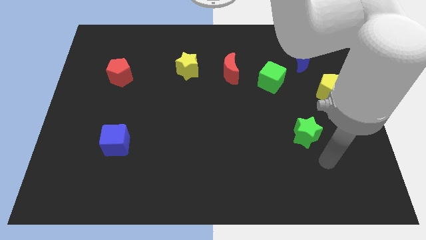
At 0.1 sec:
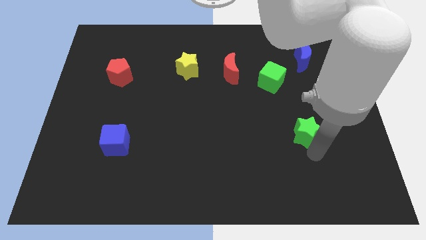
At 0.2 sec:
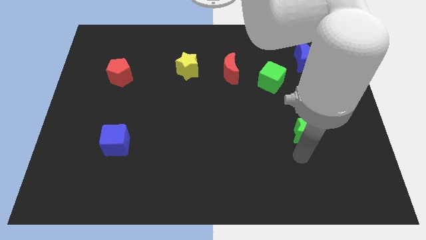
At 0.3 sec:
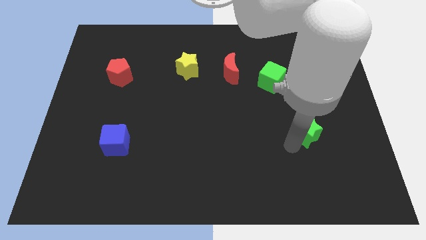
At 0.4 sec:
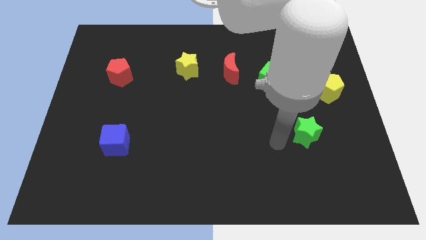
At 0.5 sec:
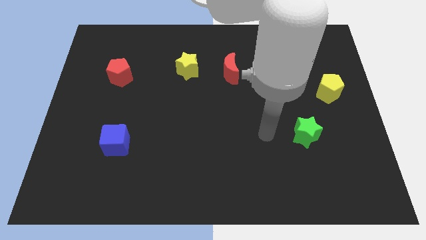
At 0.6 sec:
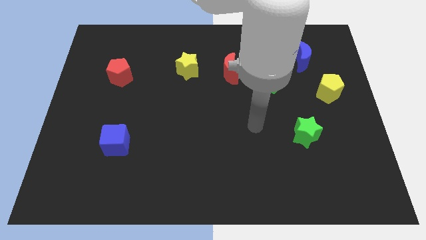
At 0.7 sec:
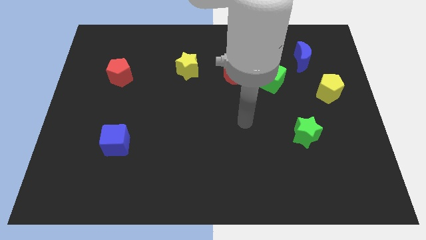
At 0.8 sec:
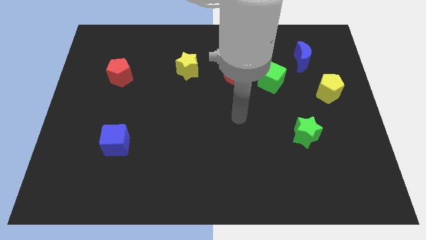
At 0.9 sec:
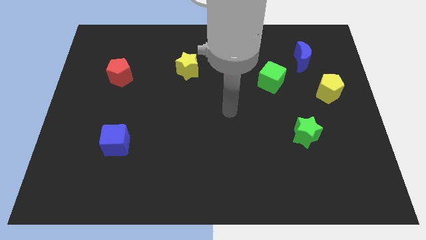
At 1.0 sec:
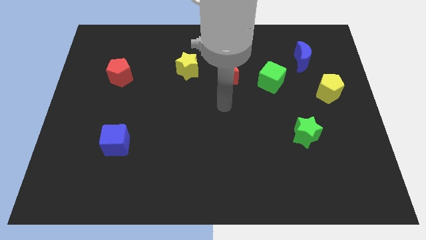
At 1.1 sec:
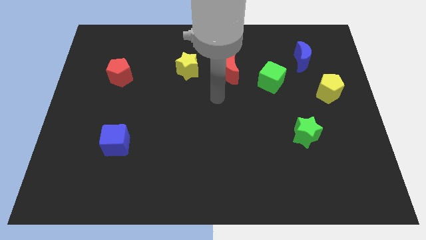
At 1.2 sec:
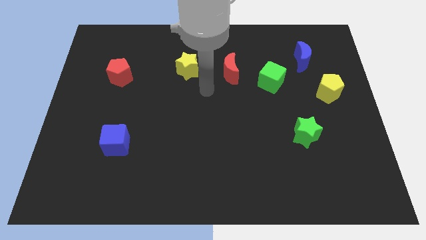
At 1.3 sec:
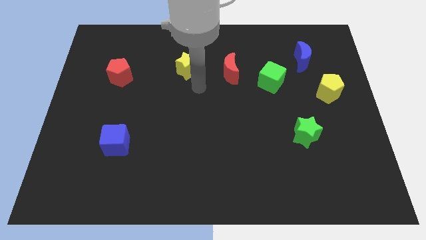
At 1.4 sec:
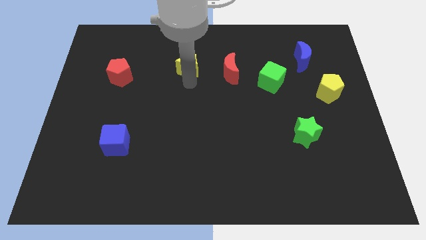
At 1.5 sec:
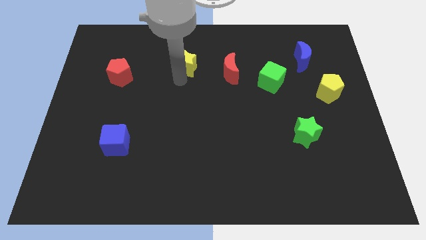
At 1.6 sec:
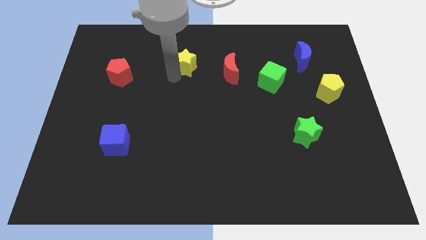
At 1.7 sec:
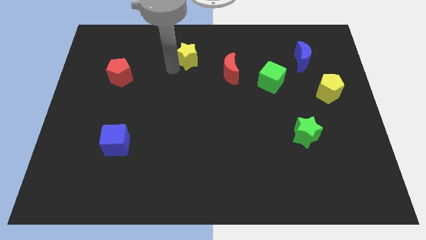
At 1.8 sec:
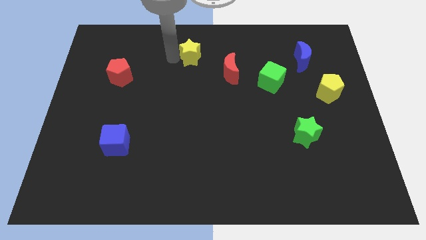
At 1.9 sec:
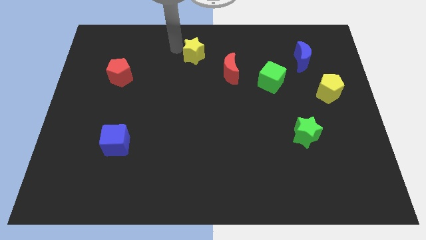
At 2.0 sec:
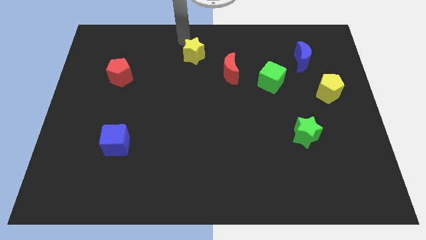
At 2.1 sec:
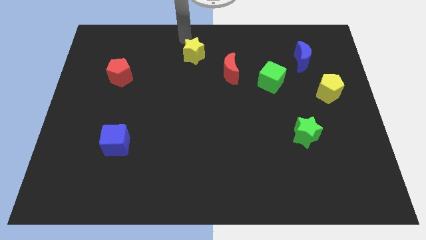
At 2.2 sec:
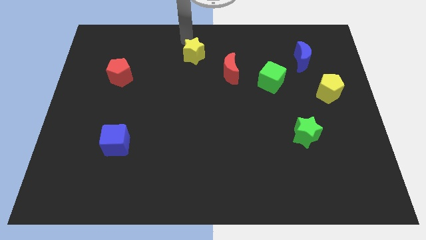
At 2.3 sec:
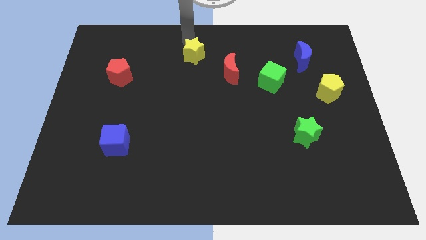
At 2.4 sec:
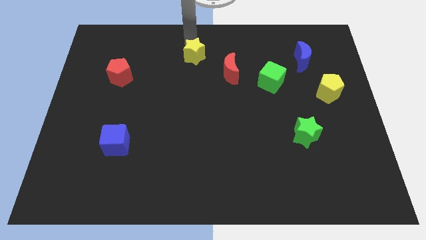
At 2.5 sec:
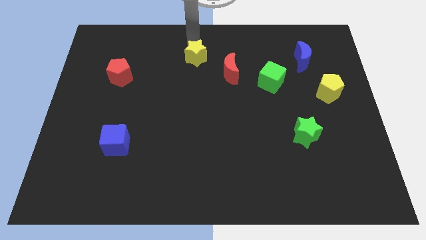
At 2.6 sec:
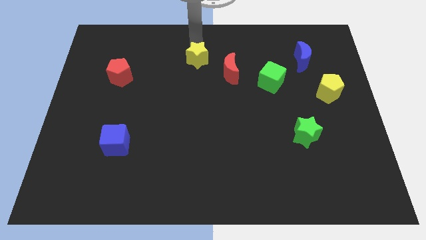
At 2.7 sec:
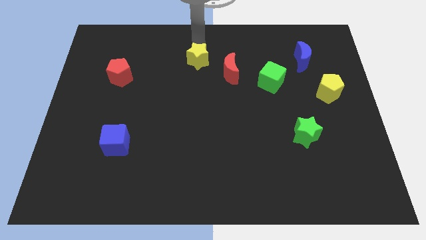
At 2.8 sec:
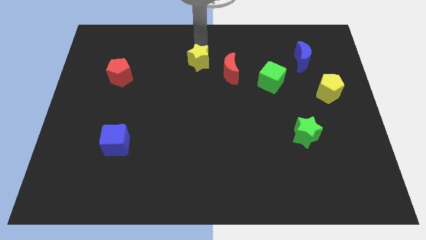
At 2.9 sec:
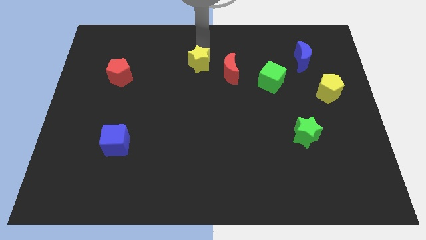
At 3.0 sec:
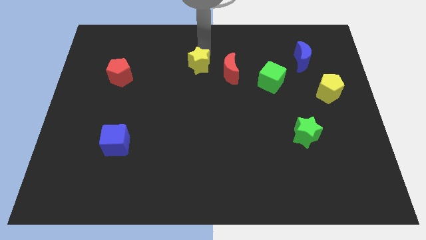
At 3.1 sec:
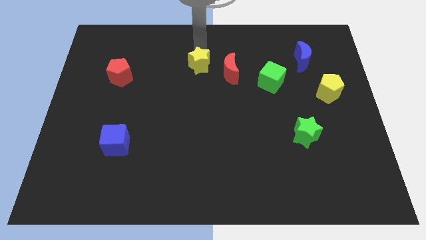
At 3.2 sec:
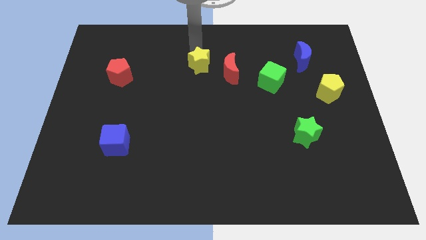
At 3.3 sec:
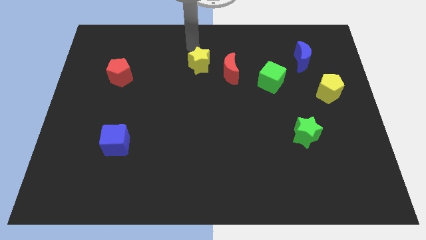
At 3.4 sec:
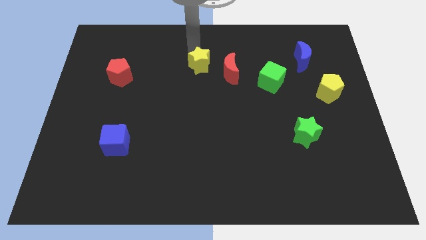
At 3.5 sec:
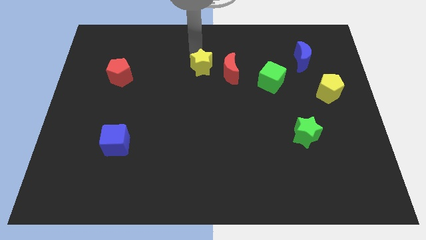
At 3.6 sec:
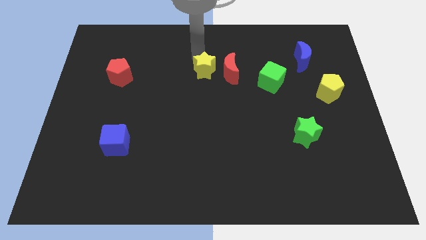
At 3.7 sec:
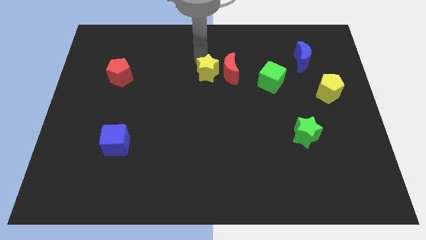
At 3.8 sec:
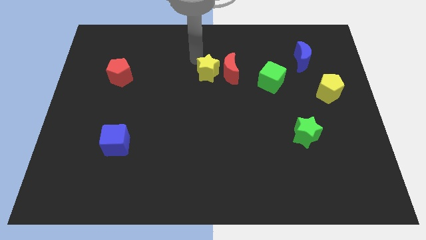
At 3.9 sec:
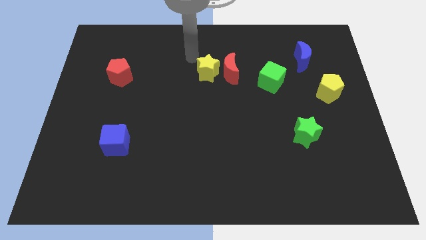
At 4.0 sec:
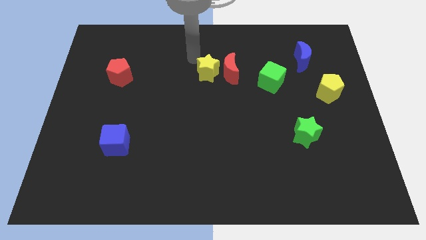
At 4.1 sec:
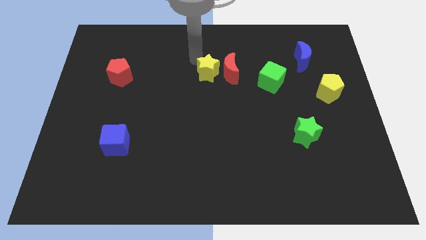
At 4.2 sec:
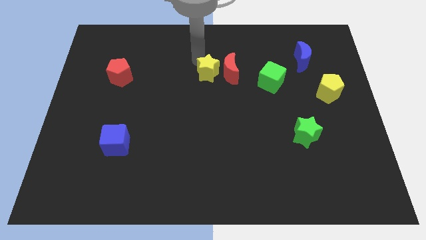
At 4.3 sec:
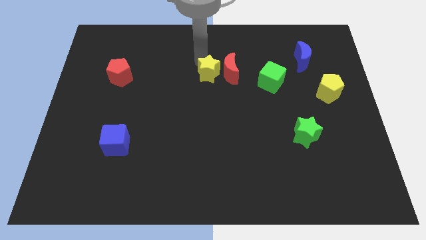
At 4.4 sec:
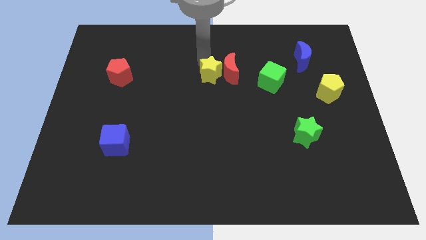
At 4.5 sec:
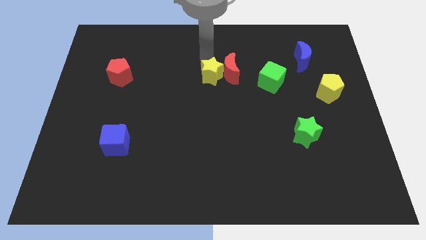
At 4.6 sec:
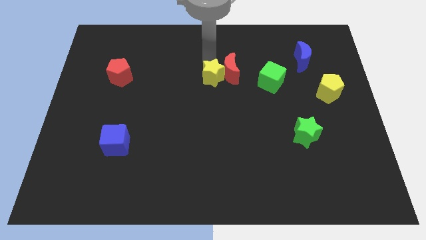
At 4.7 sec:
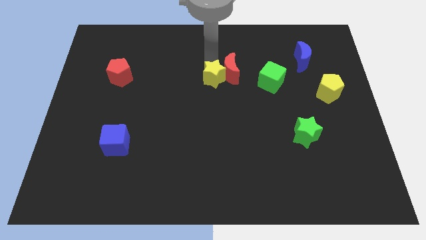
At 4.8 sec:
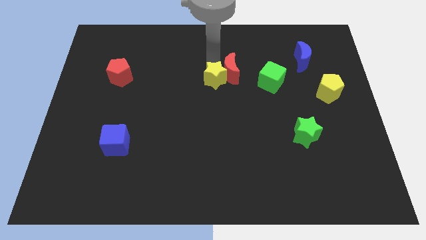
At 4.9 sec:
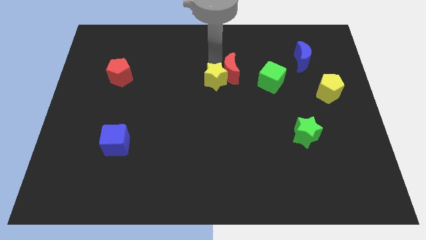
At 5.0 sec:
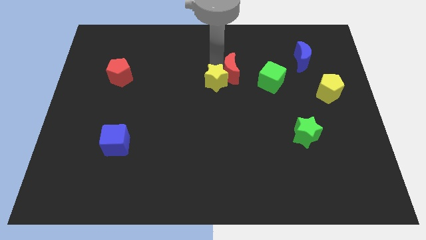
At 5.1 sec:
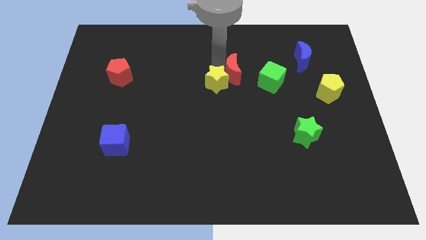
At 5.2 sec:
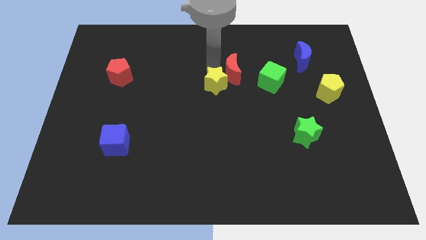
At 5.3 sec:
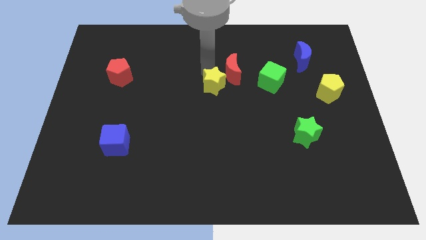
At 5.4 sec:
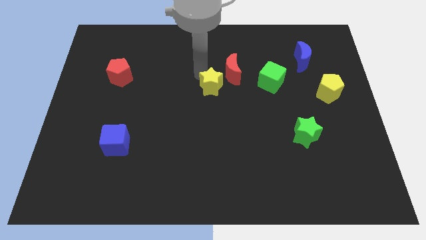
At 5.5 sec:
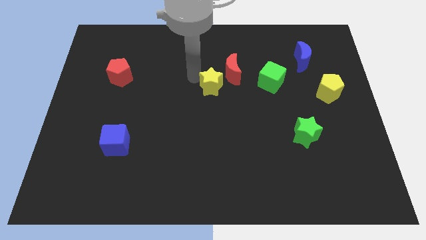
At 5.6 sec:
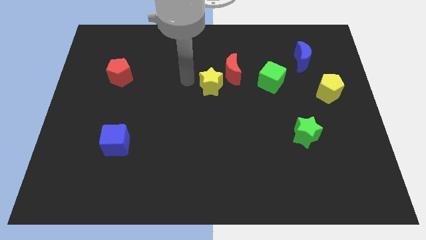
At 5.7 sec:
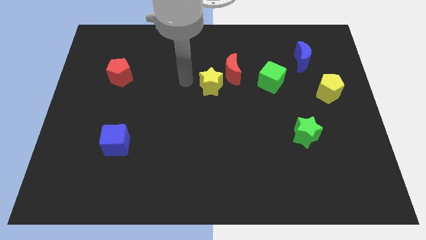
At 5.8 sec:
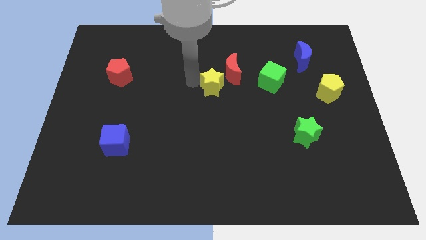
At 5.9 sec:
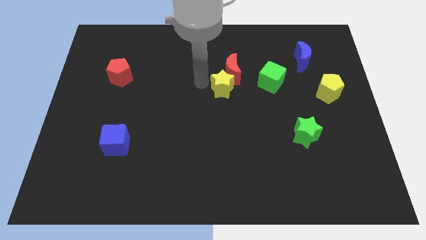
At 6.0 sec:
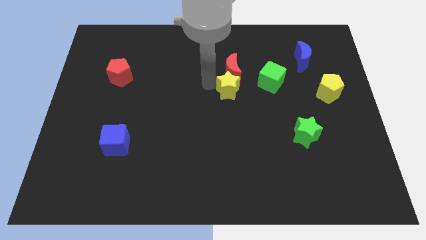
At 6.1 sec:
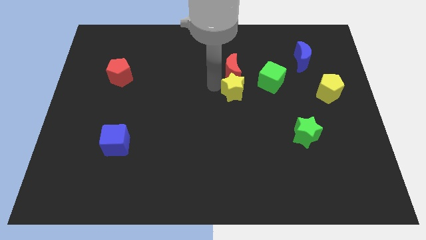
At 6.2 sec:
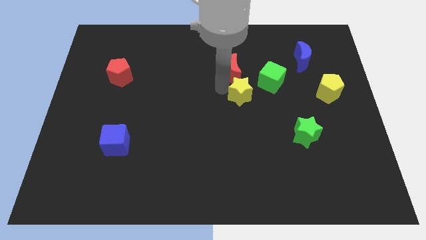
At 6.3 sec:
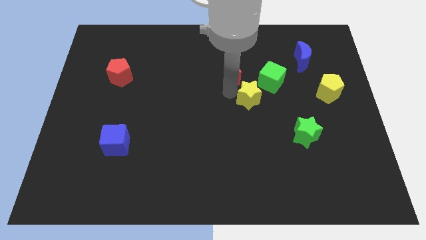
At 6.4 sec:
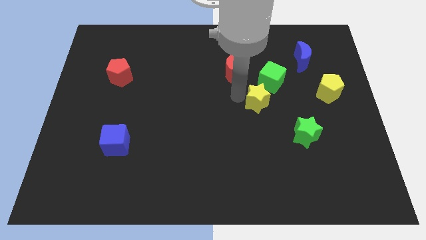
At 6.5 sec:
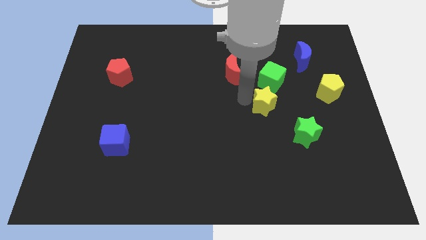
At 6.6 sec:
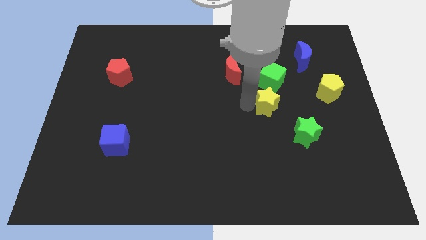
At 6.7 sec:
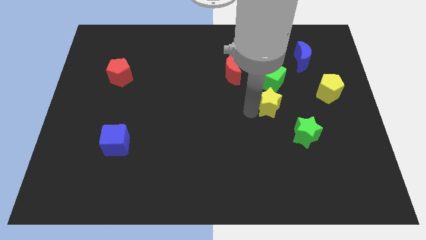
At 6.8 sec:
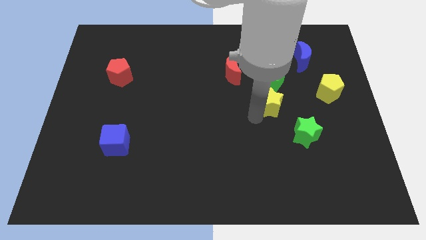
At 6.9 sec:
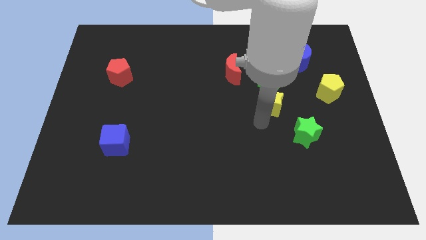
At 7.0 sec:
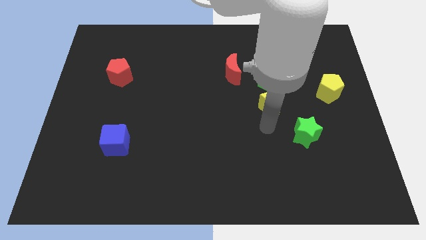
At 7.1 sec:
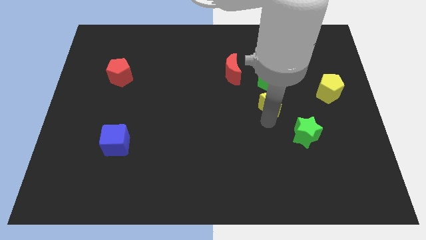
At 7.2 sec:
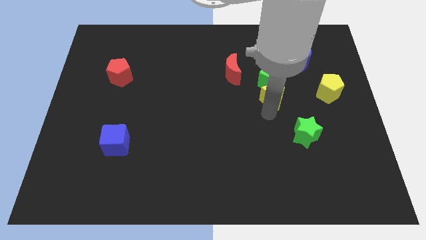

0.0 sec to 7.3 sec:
move the yellow star towards the green cube
